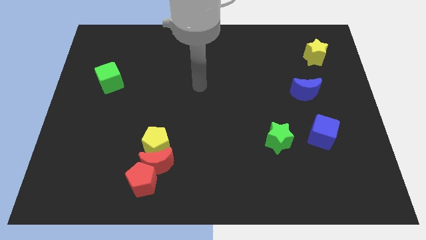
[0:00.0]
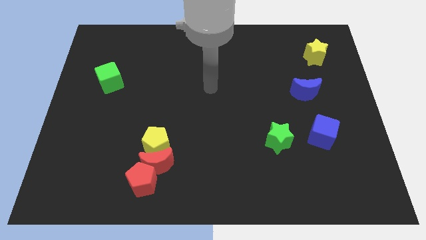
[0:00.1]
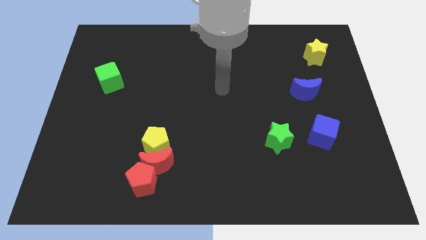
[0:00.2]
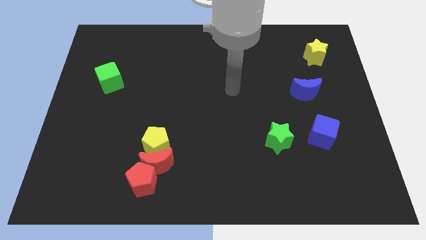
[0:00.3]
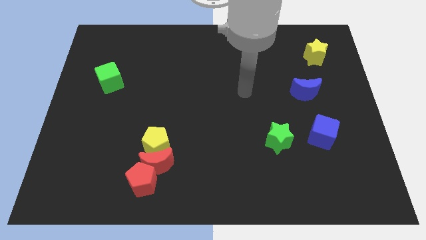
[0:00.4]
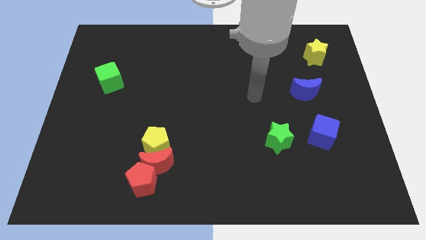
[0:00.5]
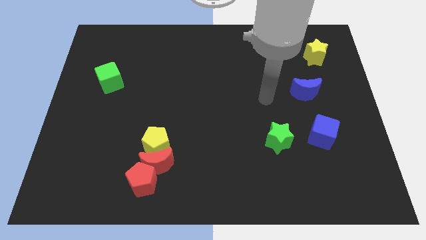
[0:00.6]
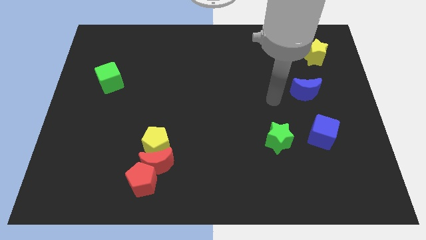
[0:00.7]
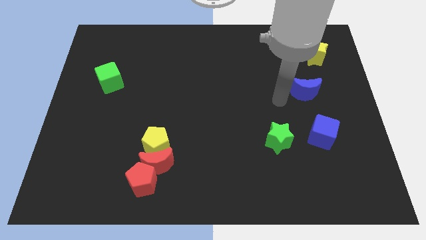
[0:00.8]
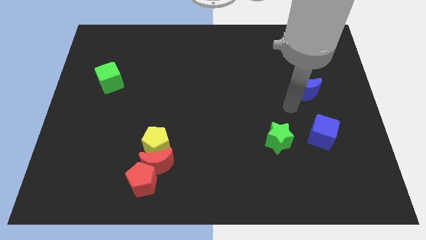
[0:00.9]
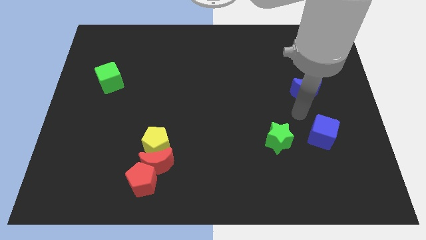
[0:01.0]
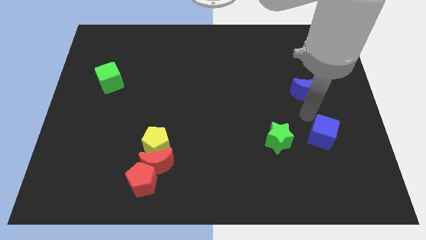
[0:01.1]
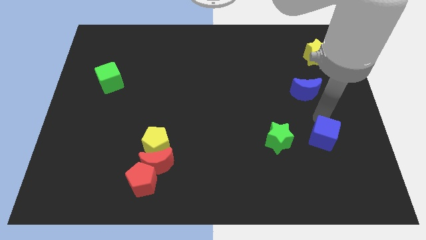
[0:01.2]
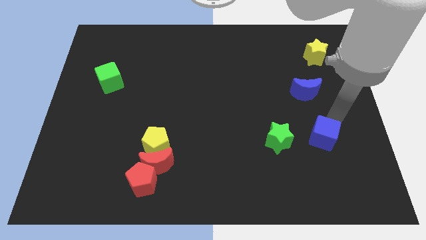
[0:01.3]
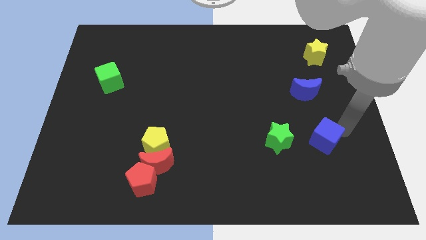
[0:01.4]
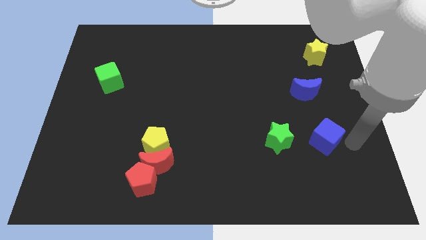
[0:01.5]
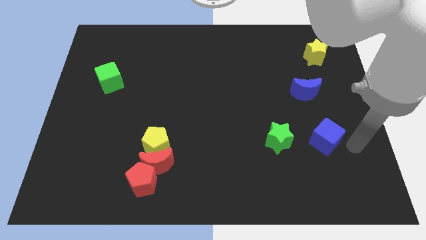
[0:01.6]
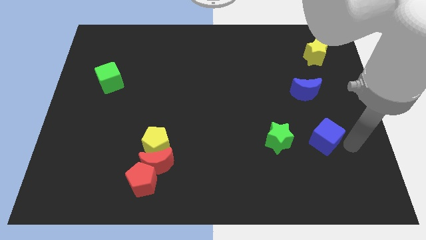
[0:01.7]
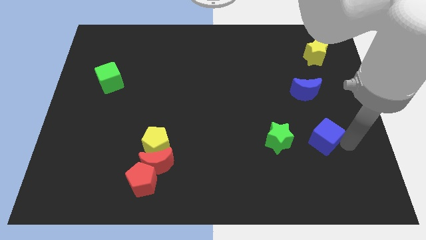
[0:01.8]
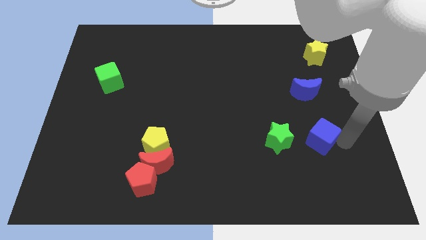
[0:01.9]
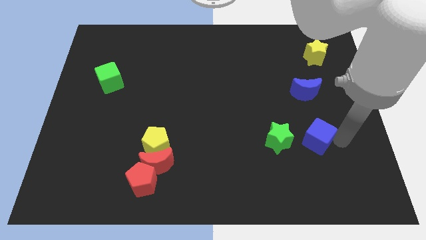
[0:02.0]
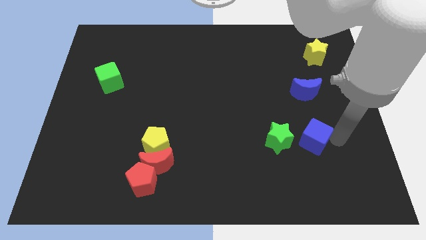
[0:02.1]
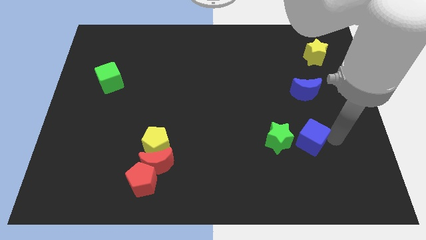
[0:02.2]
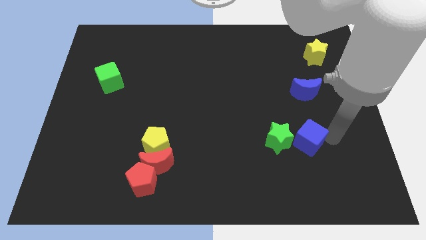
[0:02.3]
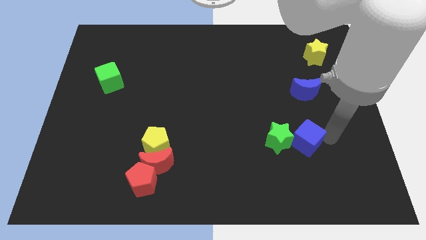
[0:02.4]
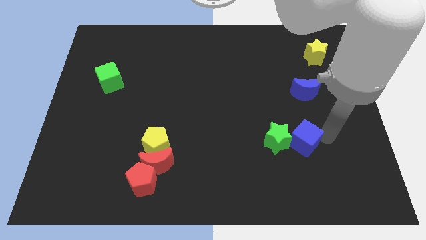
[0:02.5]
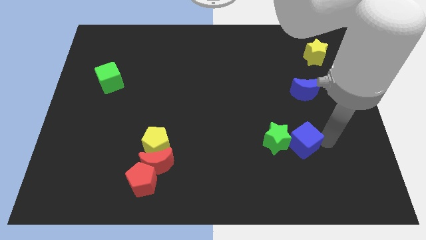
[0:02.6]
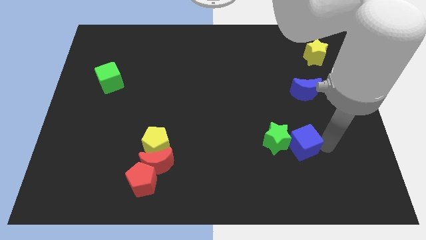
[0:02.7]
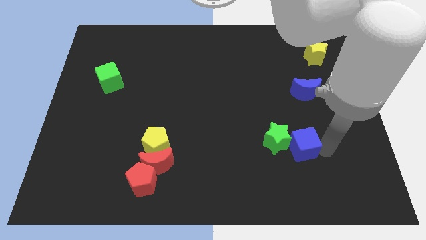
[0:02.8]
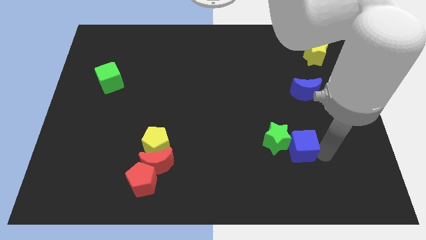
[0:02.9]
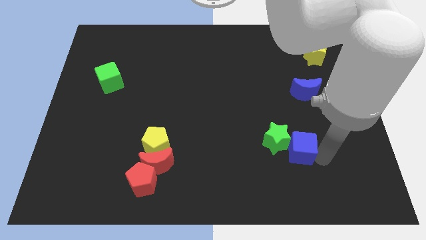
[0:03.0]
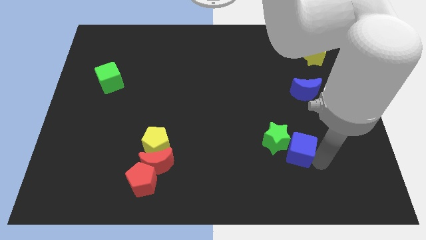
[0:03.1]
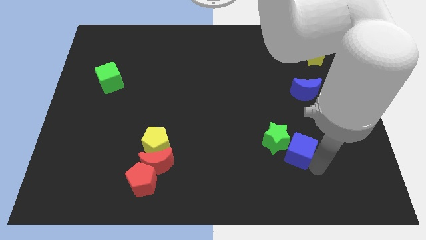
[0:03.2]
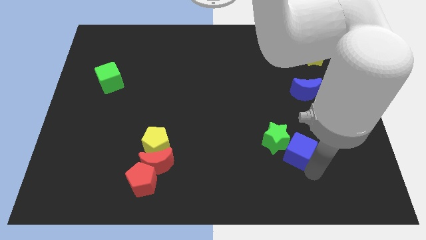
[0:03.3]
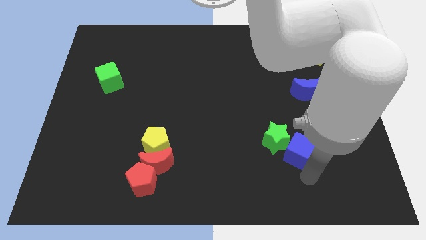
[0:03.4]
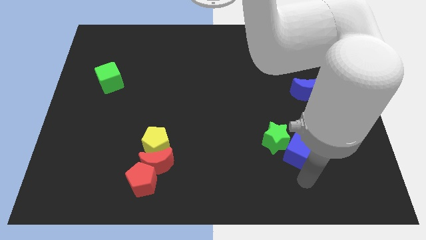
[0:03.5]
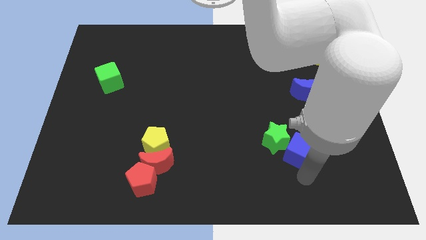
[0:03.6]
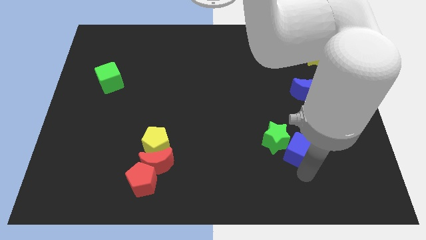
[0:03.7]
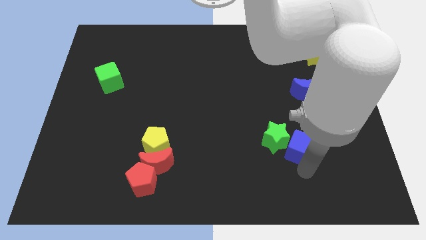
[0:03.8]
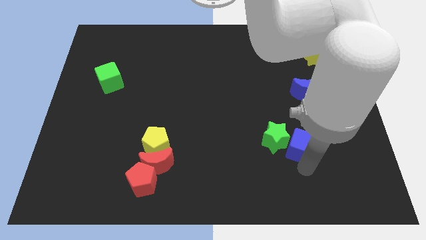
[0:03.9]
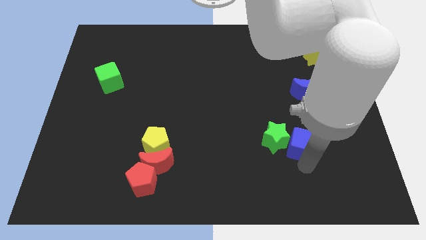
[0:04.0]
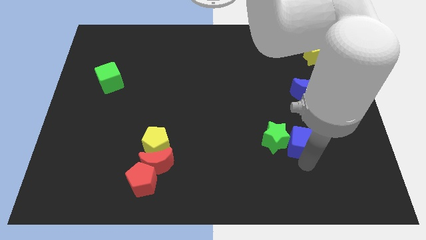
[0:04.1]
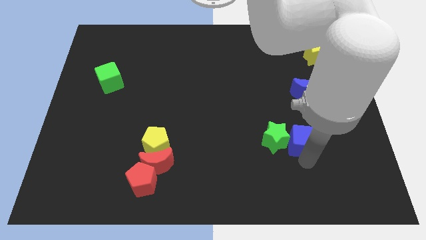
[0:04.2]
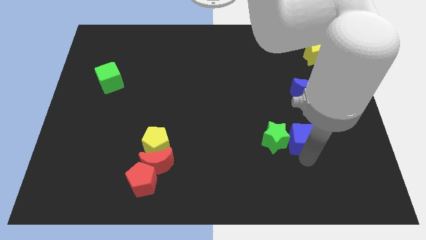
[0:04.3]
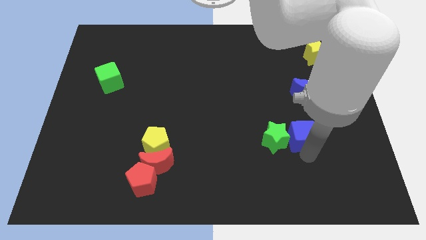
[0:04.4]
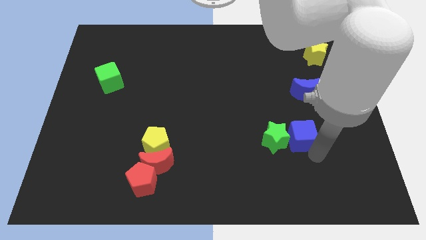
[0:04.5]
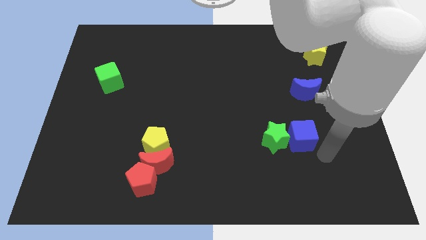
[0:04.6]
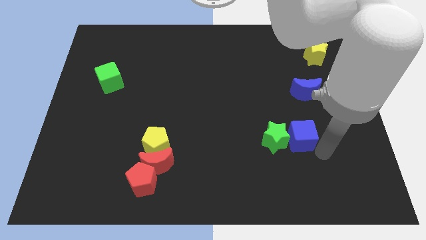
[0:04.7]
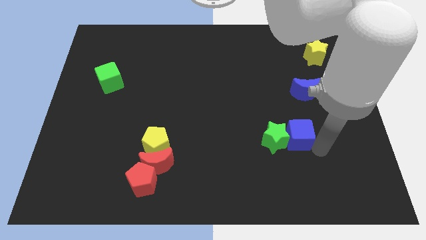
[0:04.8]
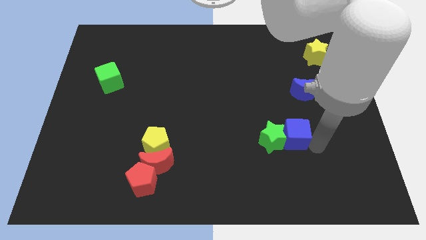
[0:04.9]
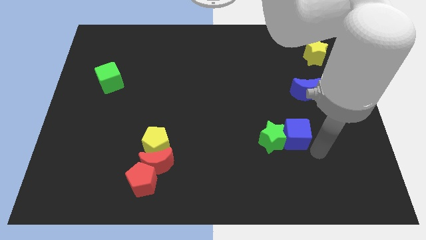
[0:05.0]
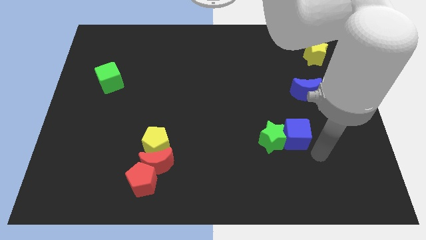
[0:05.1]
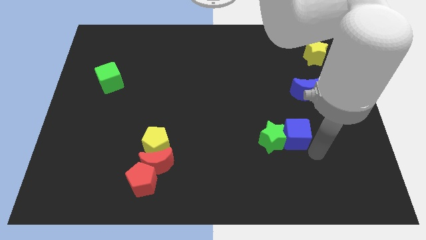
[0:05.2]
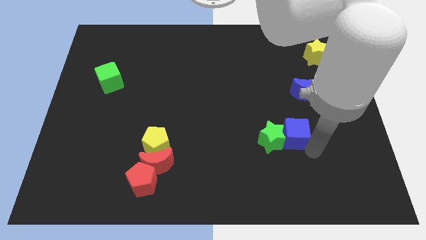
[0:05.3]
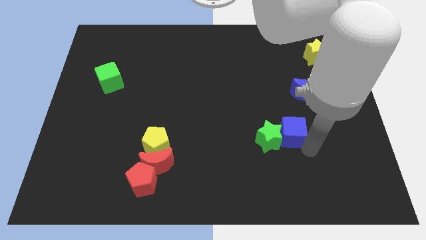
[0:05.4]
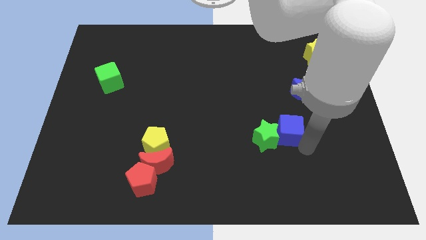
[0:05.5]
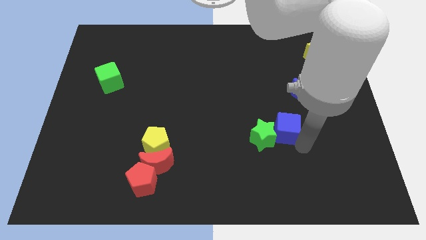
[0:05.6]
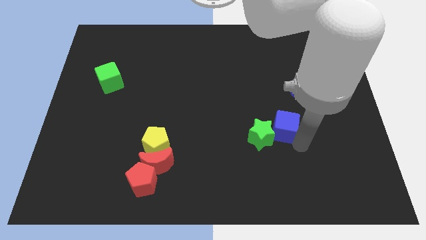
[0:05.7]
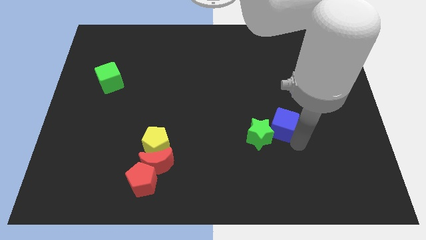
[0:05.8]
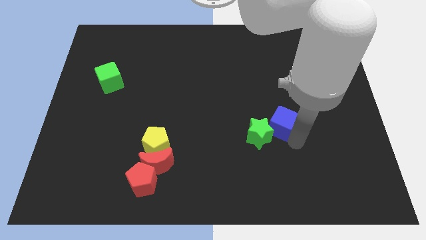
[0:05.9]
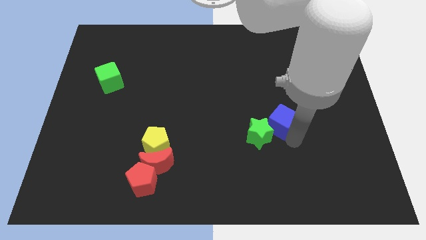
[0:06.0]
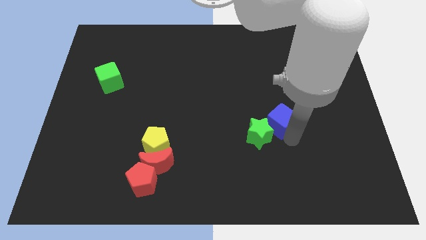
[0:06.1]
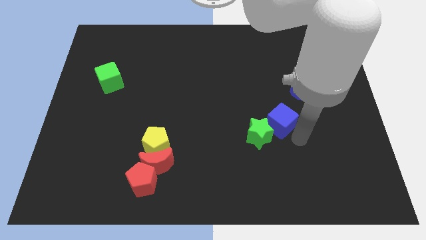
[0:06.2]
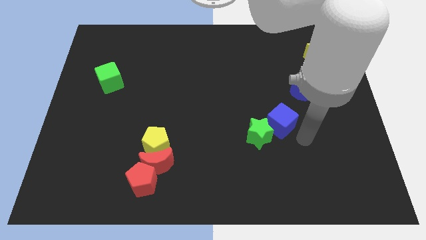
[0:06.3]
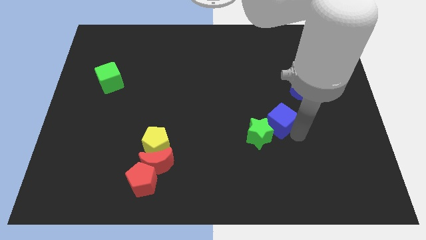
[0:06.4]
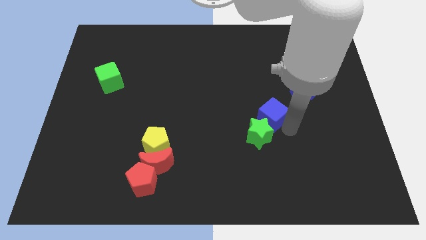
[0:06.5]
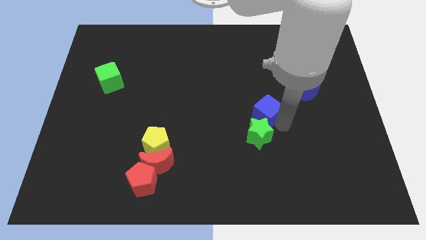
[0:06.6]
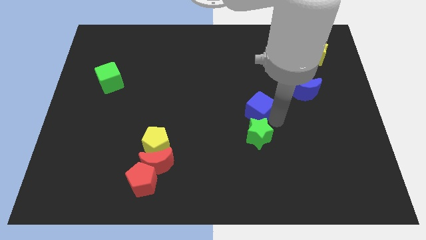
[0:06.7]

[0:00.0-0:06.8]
move the blue cube to the middle of the board
